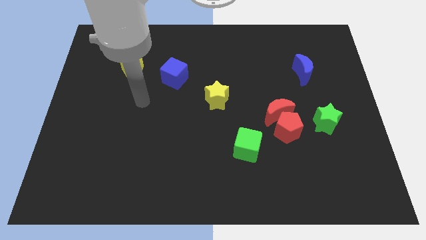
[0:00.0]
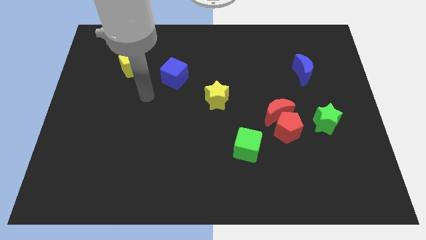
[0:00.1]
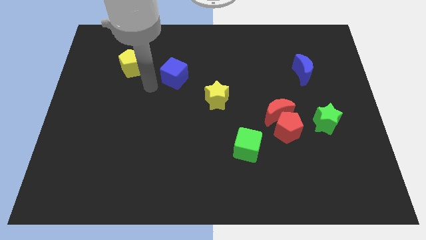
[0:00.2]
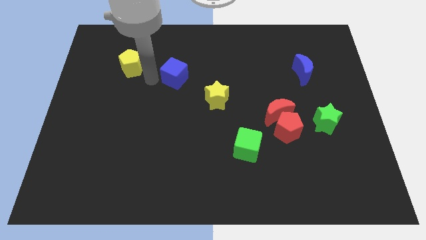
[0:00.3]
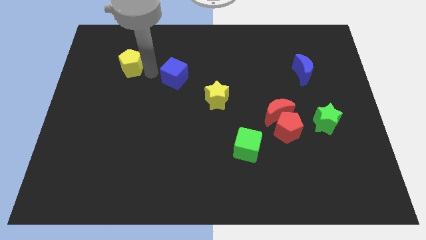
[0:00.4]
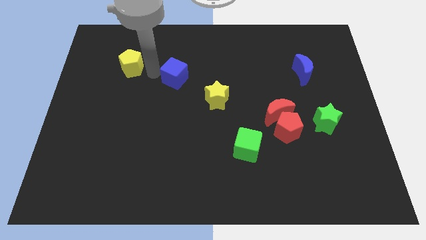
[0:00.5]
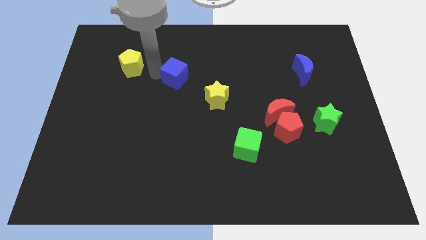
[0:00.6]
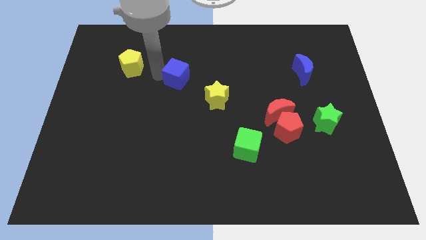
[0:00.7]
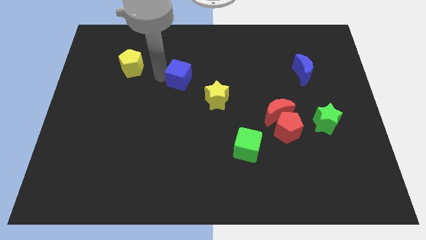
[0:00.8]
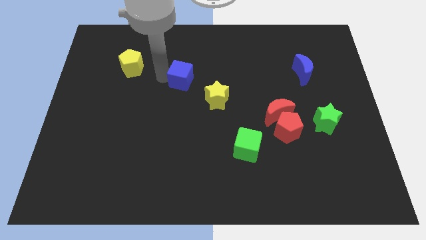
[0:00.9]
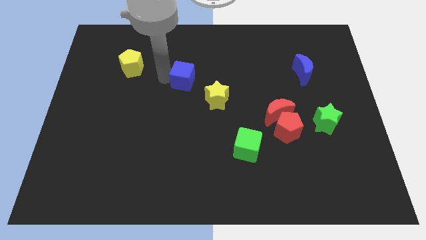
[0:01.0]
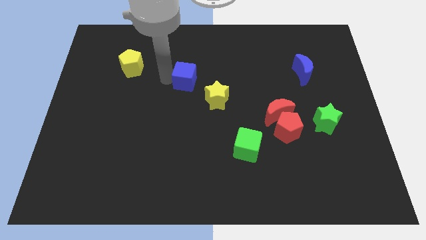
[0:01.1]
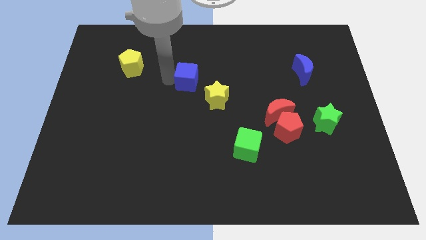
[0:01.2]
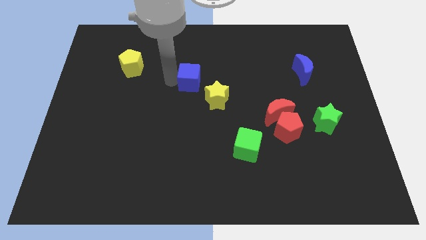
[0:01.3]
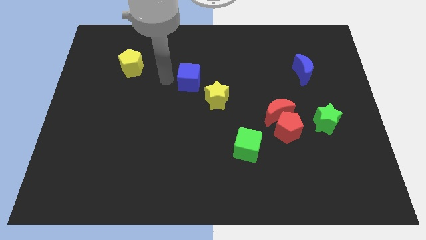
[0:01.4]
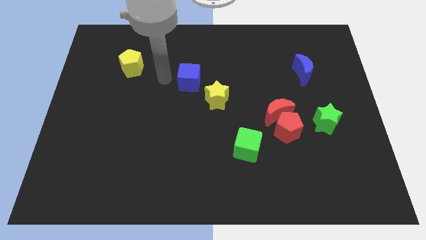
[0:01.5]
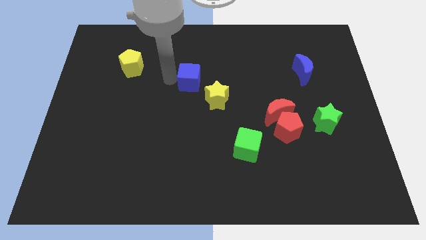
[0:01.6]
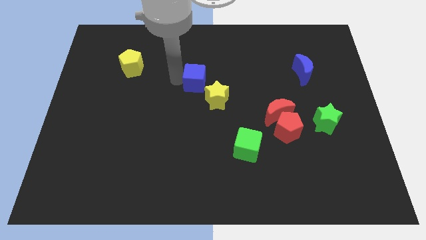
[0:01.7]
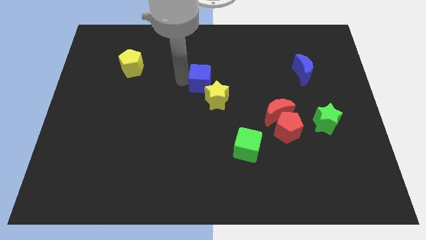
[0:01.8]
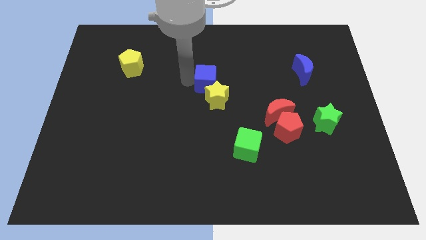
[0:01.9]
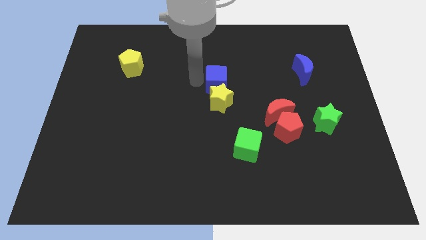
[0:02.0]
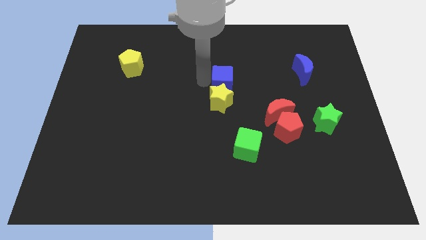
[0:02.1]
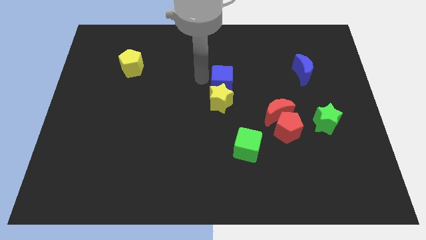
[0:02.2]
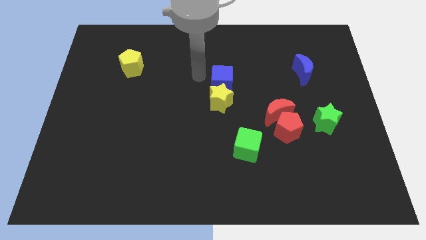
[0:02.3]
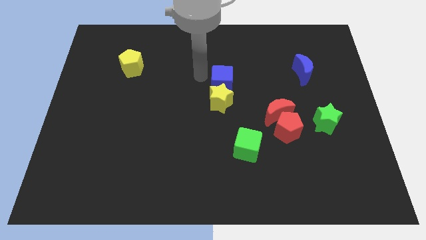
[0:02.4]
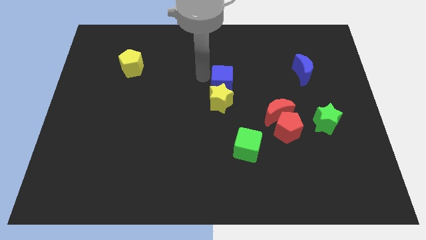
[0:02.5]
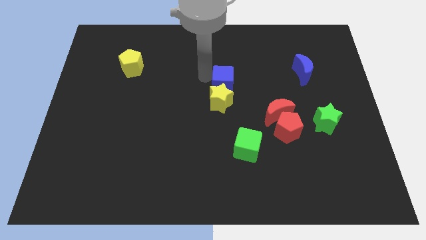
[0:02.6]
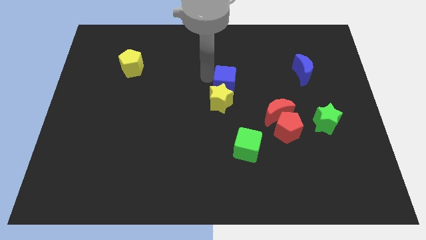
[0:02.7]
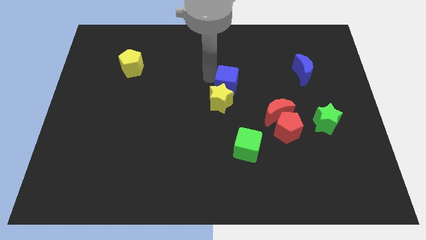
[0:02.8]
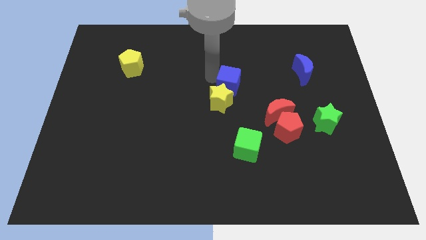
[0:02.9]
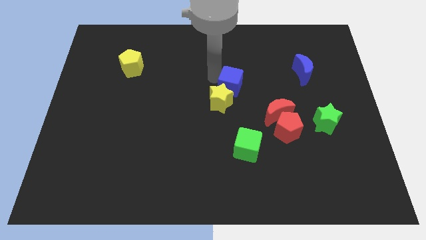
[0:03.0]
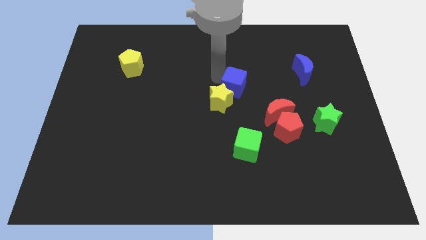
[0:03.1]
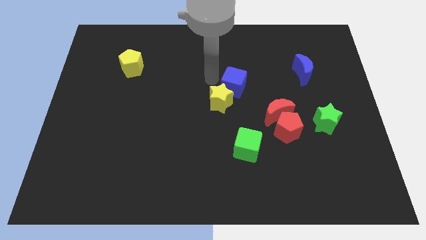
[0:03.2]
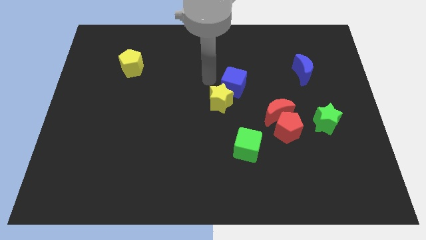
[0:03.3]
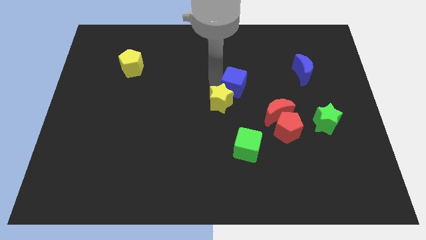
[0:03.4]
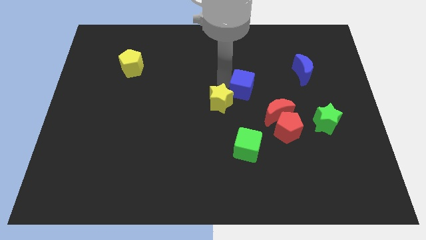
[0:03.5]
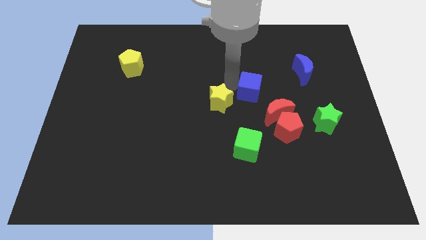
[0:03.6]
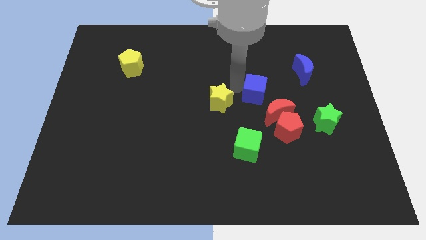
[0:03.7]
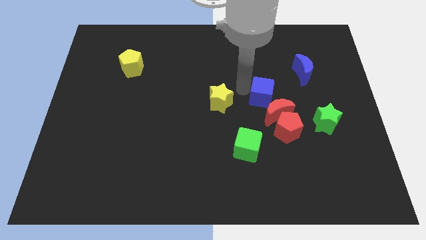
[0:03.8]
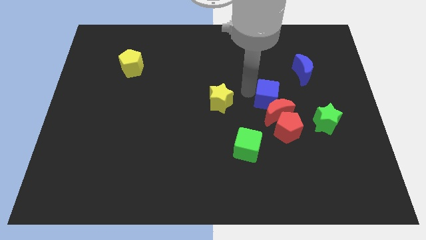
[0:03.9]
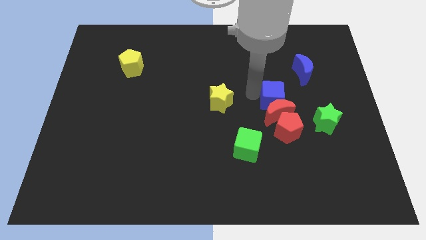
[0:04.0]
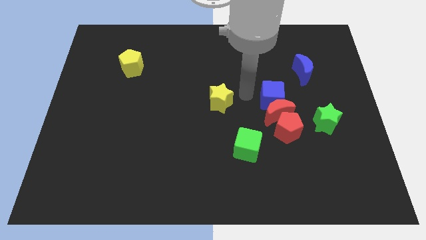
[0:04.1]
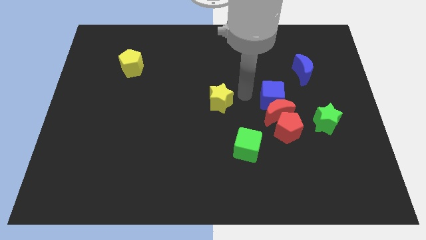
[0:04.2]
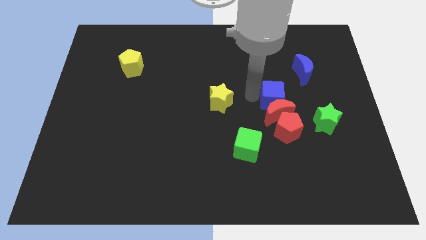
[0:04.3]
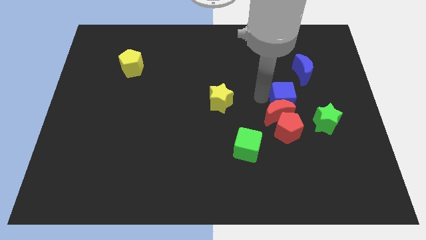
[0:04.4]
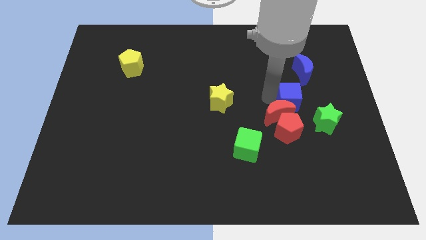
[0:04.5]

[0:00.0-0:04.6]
slide the blue cube to the bottom of the blue moon

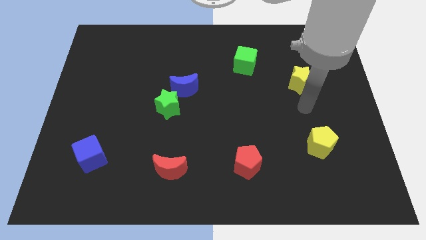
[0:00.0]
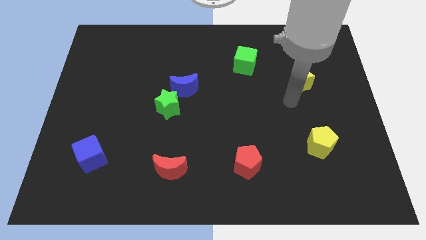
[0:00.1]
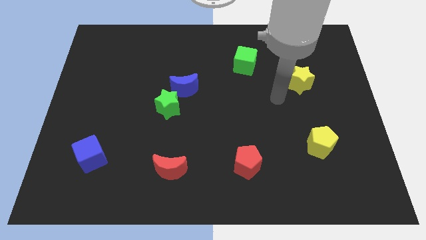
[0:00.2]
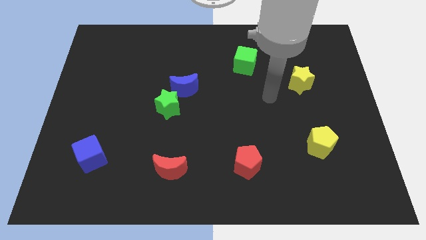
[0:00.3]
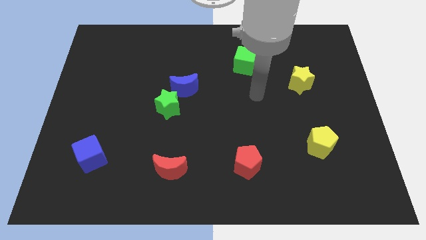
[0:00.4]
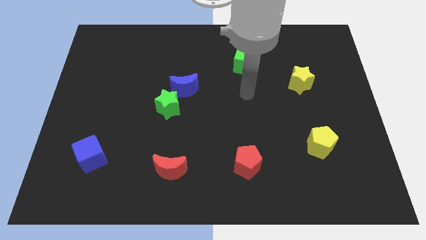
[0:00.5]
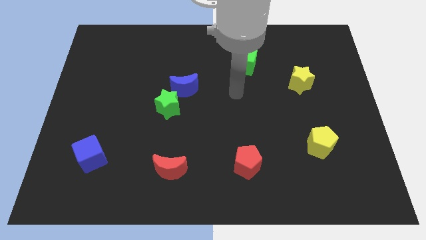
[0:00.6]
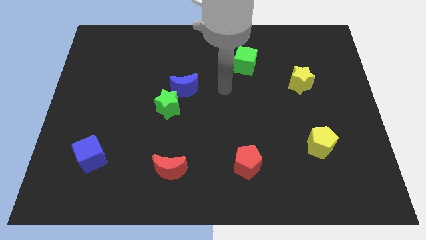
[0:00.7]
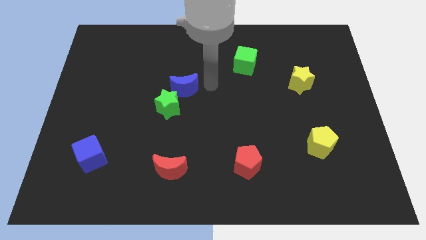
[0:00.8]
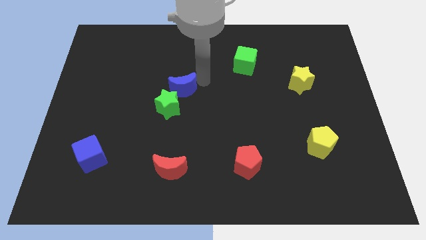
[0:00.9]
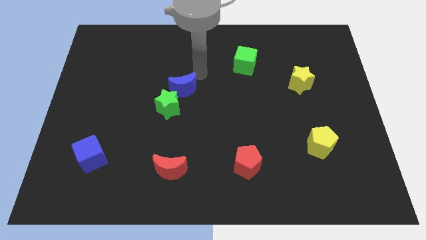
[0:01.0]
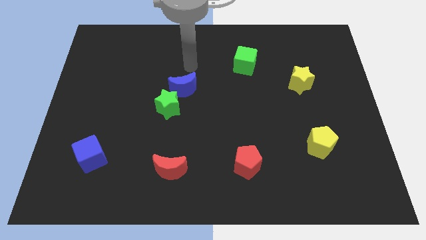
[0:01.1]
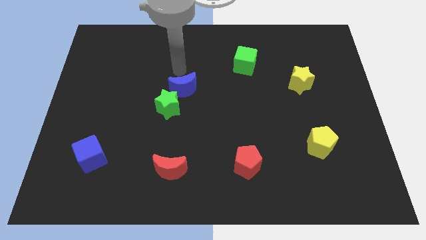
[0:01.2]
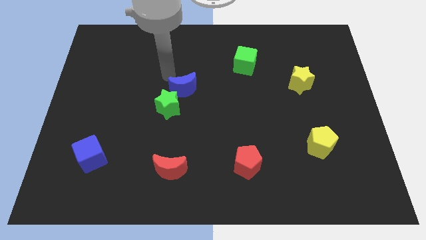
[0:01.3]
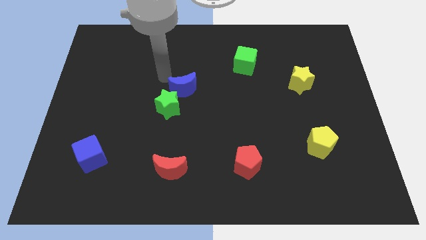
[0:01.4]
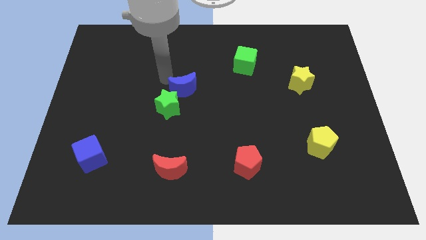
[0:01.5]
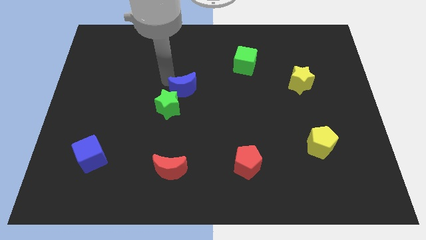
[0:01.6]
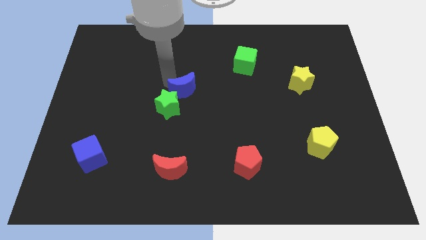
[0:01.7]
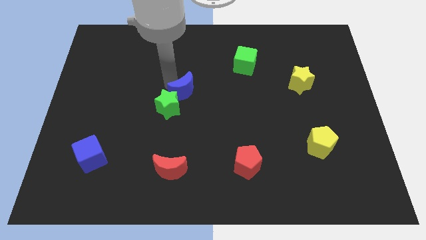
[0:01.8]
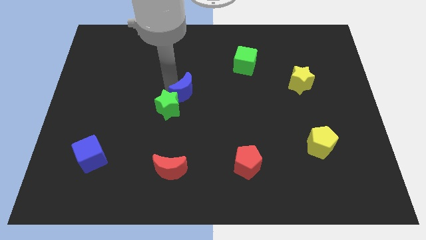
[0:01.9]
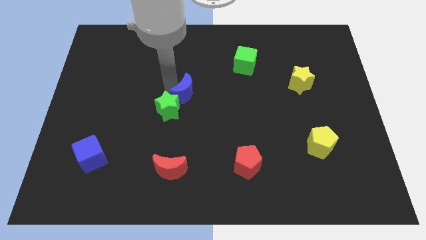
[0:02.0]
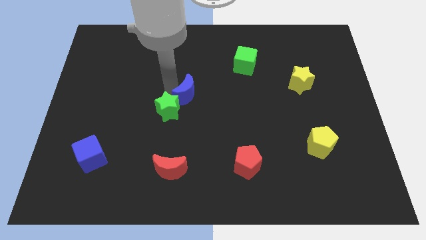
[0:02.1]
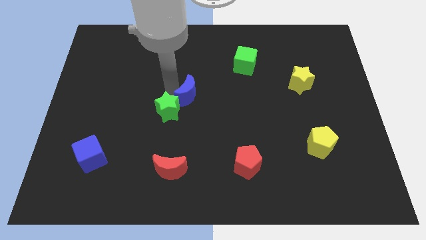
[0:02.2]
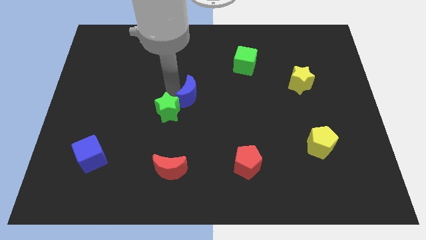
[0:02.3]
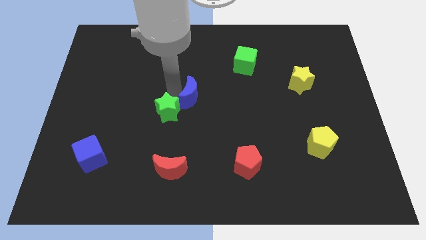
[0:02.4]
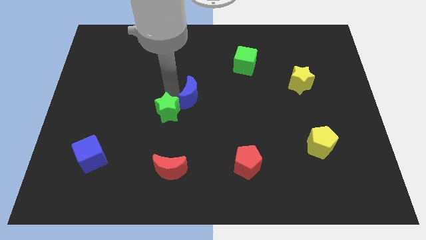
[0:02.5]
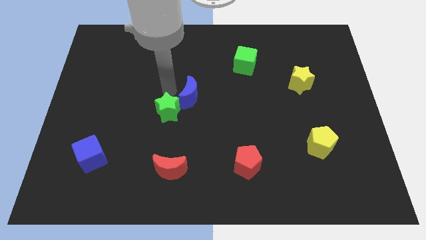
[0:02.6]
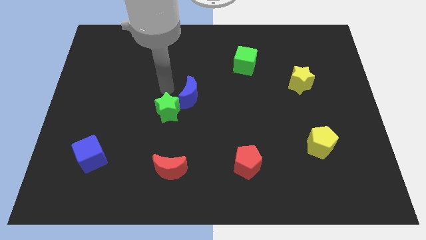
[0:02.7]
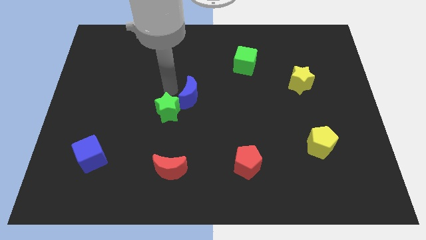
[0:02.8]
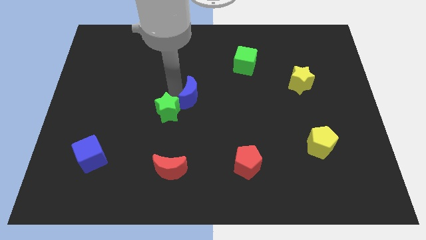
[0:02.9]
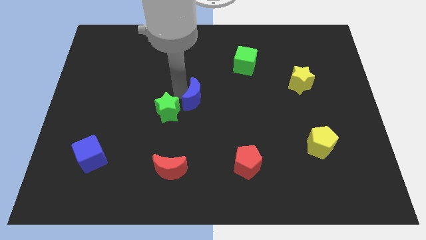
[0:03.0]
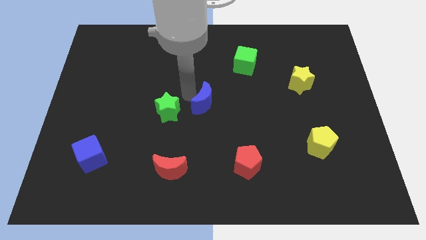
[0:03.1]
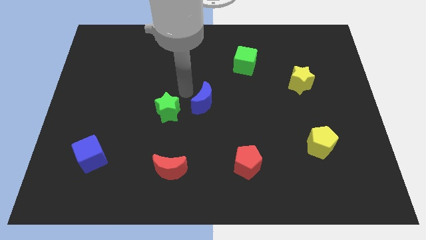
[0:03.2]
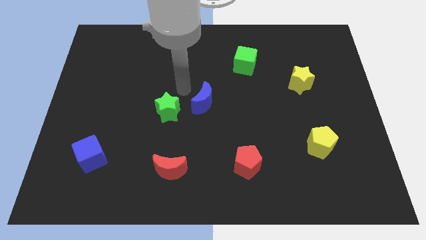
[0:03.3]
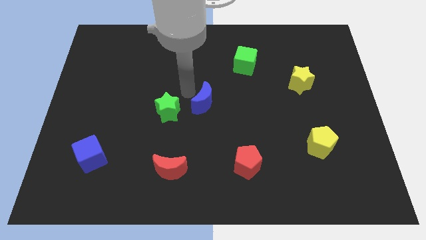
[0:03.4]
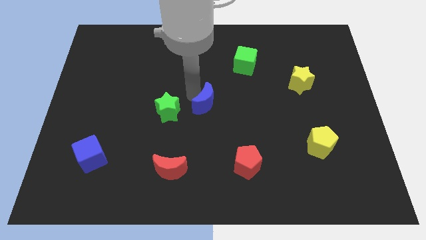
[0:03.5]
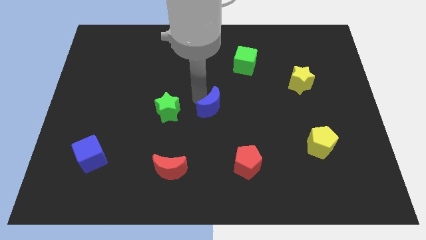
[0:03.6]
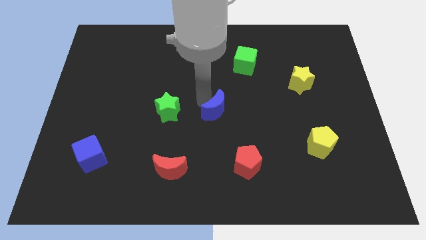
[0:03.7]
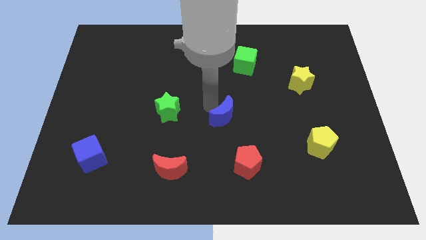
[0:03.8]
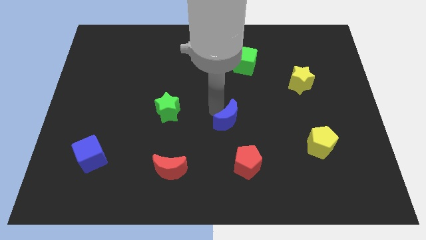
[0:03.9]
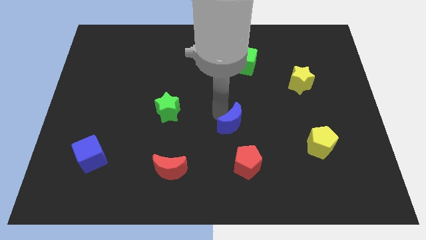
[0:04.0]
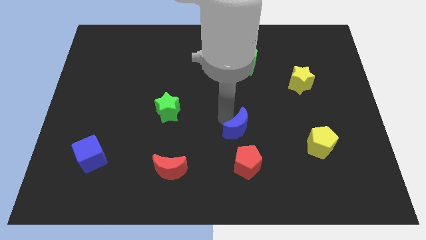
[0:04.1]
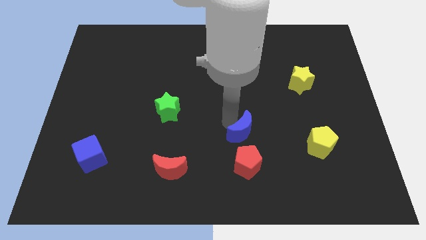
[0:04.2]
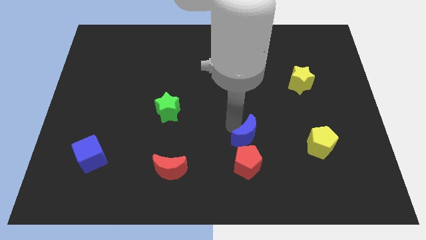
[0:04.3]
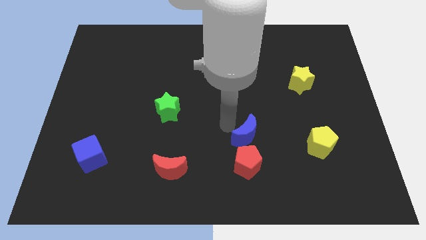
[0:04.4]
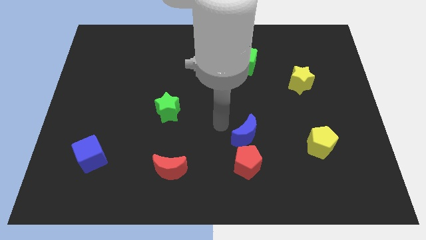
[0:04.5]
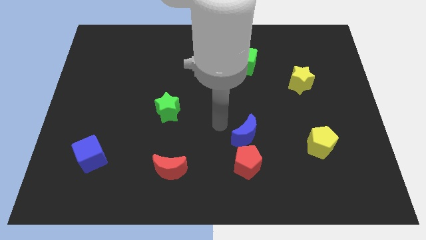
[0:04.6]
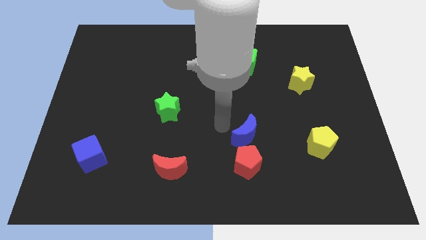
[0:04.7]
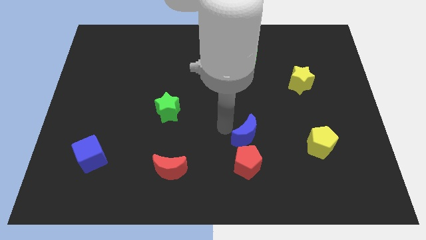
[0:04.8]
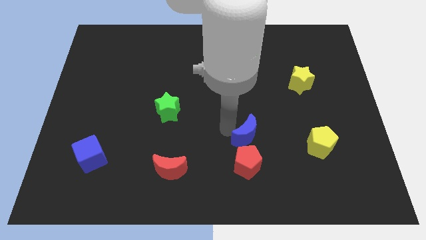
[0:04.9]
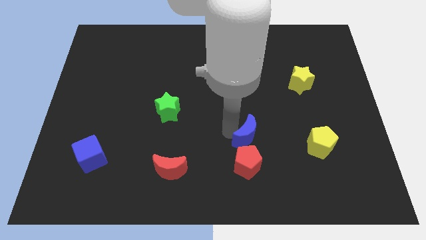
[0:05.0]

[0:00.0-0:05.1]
slide the blue moon to the left of the yellow pentagon
